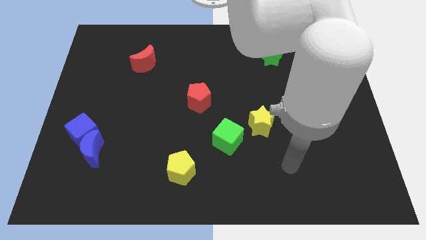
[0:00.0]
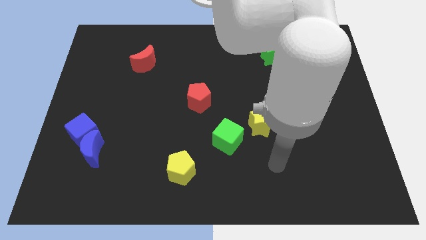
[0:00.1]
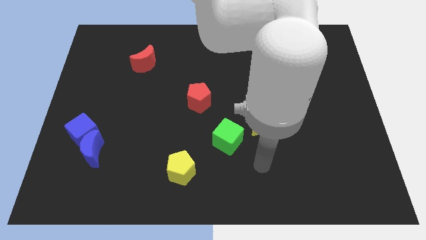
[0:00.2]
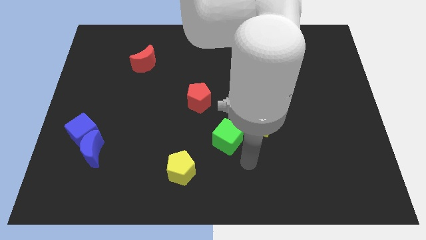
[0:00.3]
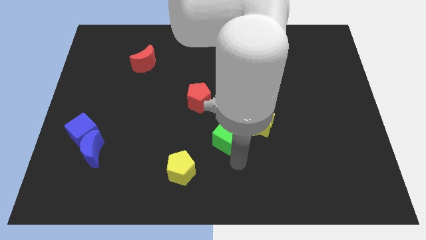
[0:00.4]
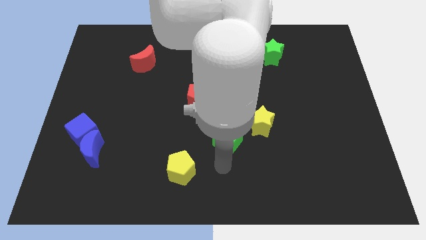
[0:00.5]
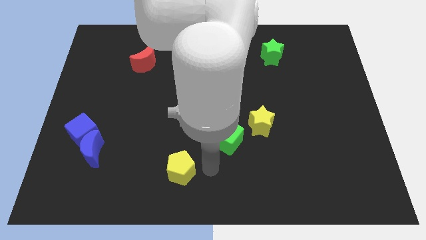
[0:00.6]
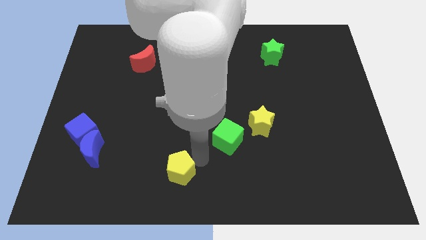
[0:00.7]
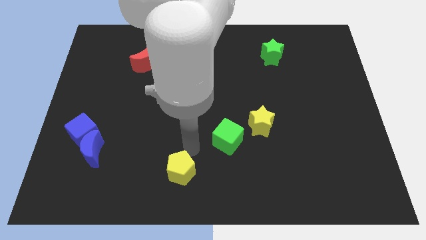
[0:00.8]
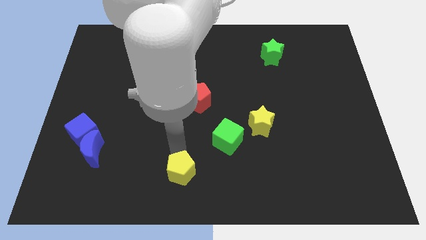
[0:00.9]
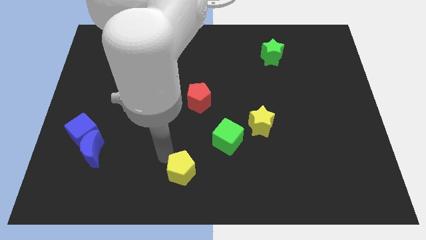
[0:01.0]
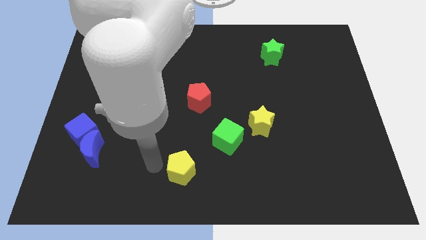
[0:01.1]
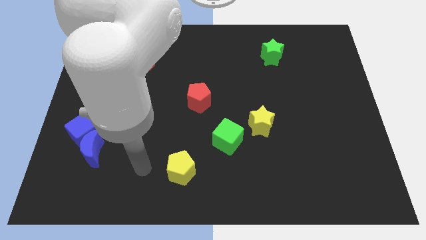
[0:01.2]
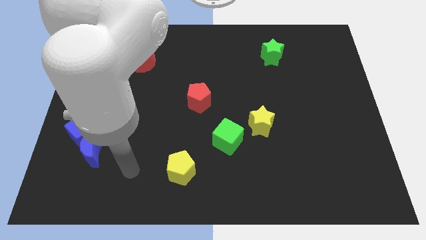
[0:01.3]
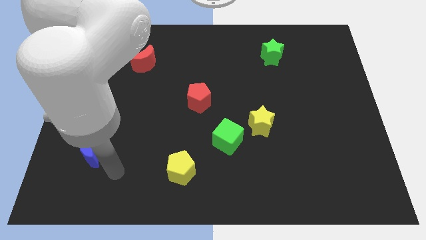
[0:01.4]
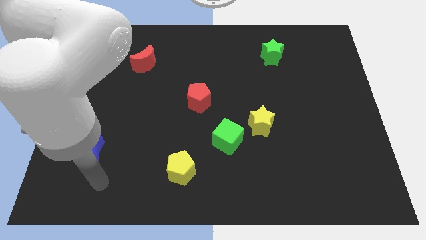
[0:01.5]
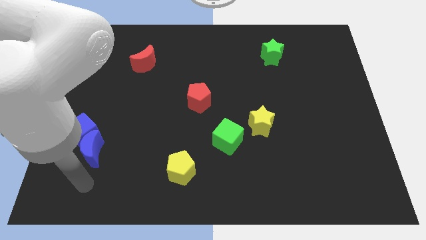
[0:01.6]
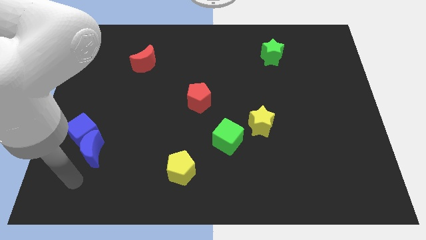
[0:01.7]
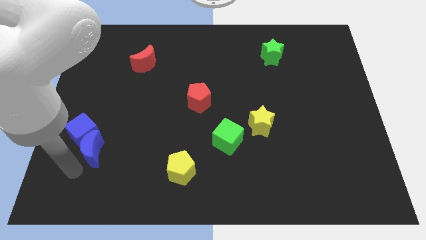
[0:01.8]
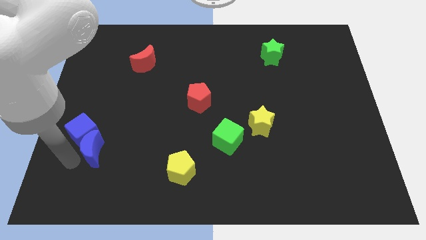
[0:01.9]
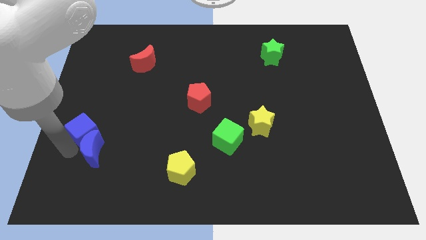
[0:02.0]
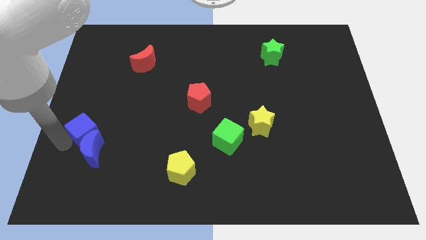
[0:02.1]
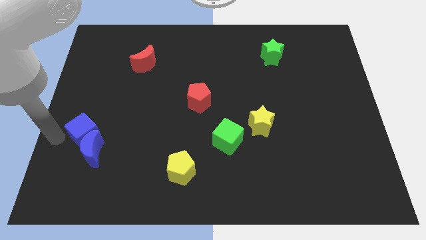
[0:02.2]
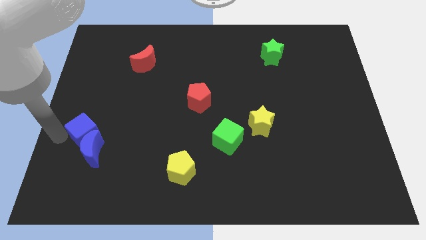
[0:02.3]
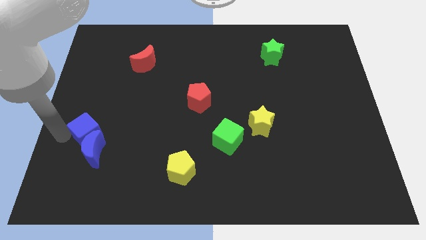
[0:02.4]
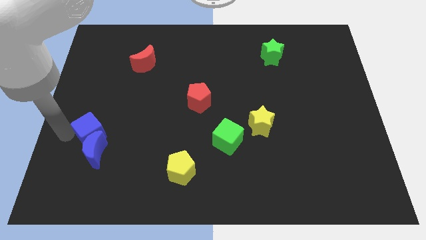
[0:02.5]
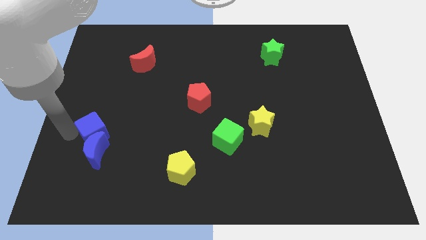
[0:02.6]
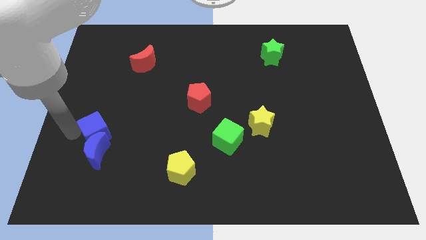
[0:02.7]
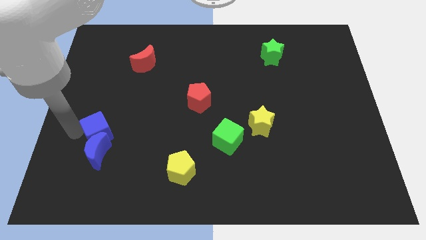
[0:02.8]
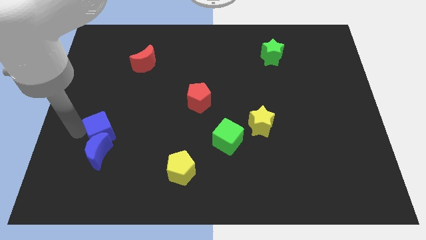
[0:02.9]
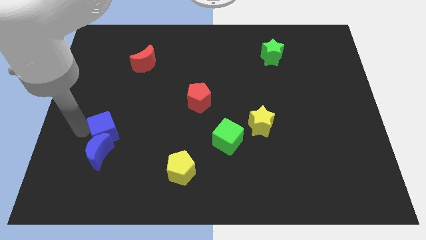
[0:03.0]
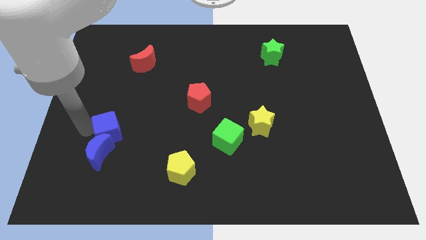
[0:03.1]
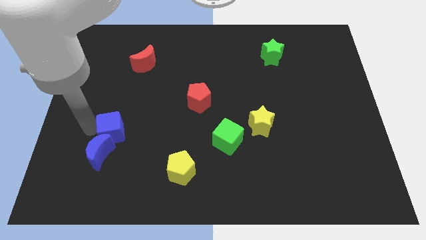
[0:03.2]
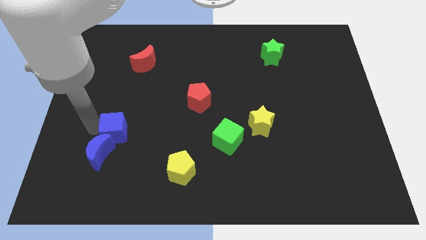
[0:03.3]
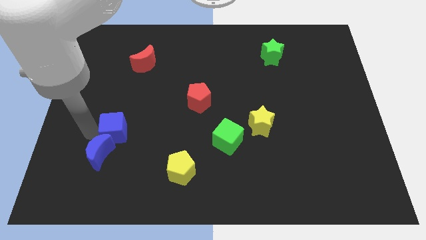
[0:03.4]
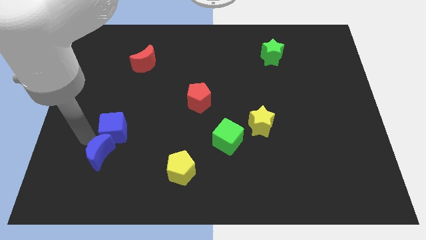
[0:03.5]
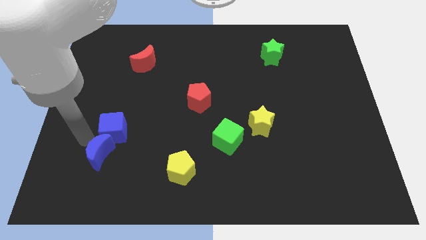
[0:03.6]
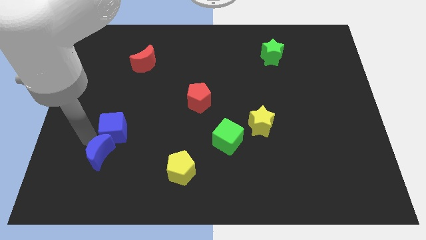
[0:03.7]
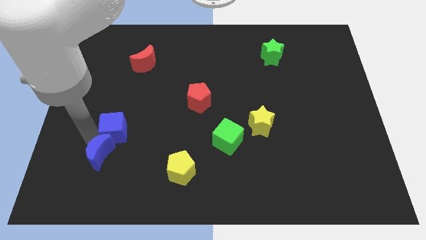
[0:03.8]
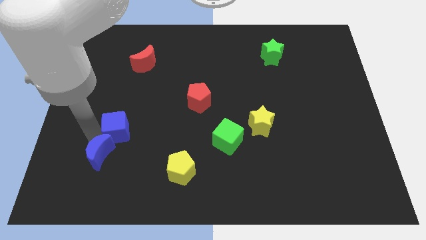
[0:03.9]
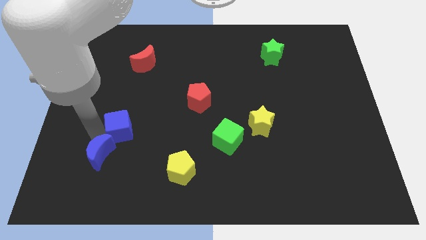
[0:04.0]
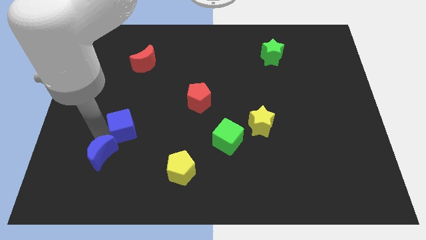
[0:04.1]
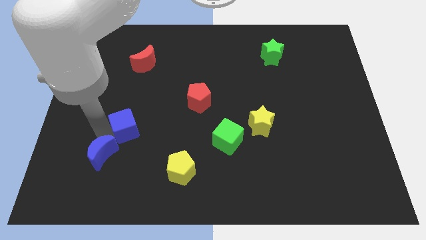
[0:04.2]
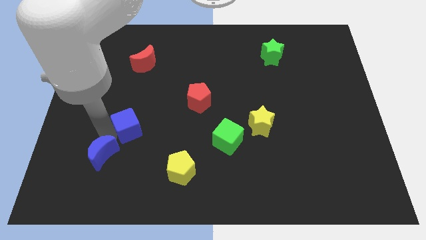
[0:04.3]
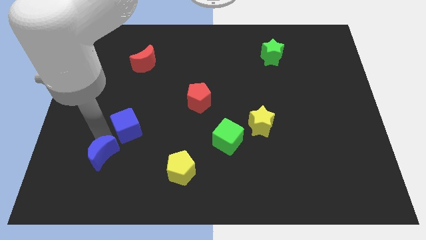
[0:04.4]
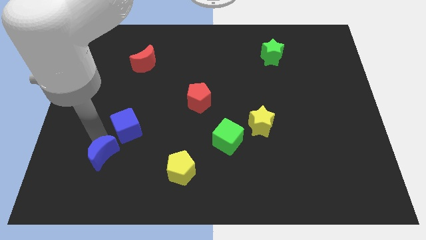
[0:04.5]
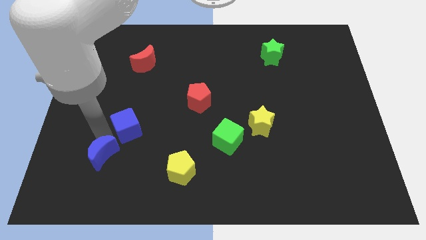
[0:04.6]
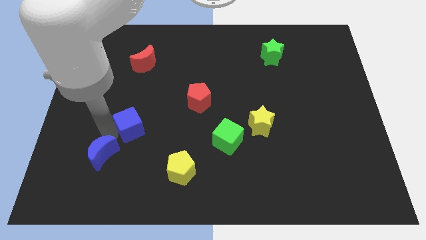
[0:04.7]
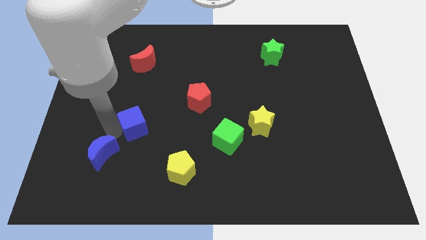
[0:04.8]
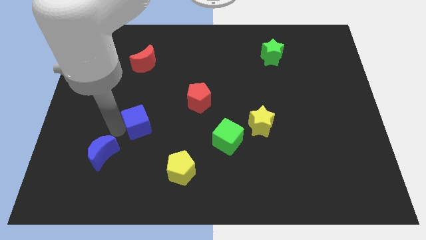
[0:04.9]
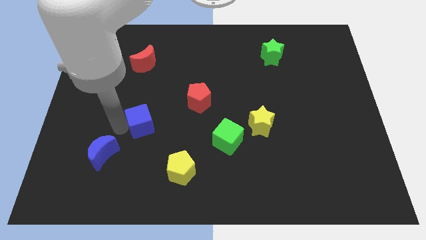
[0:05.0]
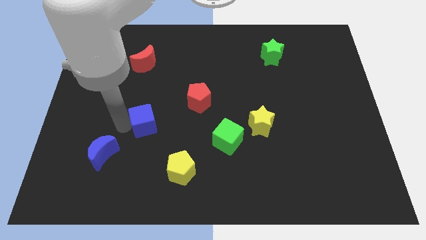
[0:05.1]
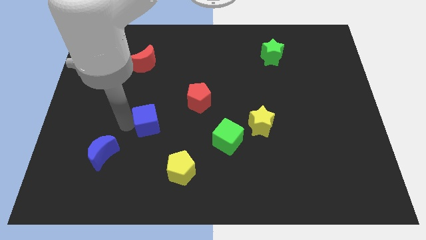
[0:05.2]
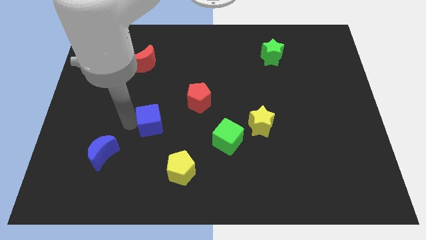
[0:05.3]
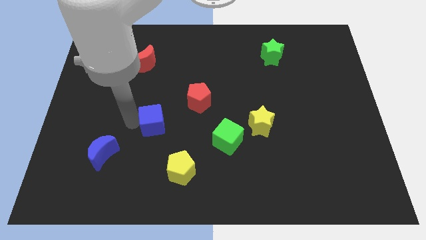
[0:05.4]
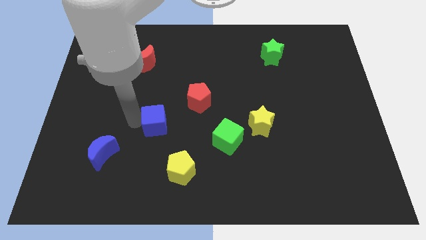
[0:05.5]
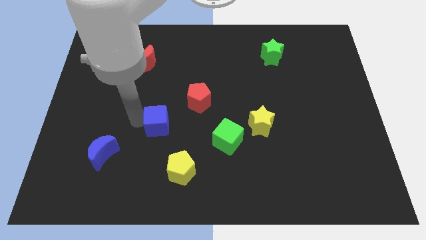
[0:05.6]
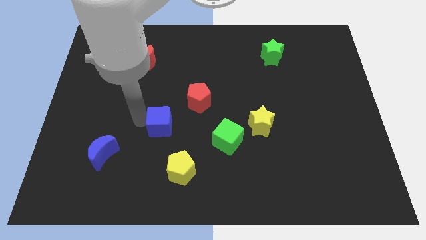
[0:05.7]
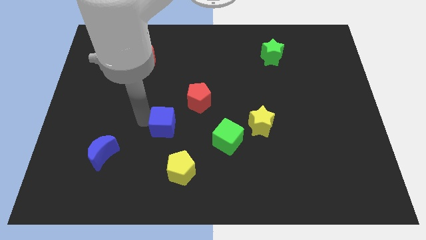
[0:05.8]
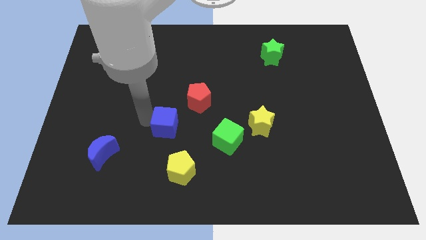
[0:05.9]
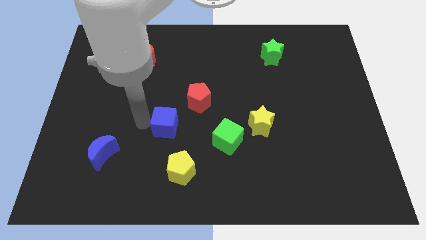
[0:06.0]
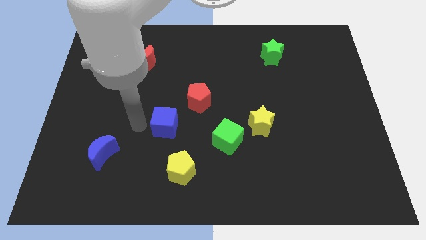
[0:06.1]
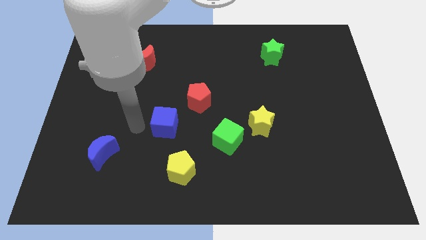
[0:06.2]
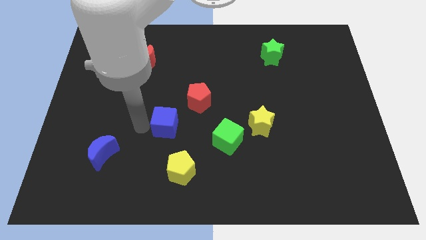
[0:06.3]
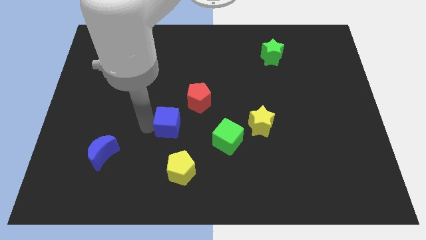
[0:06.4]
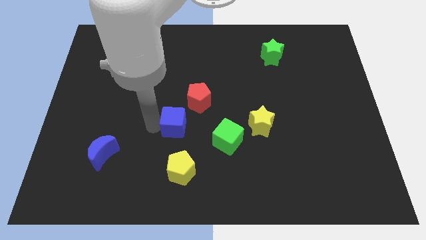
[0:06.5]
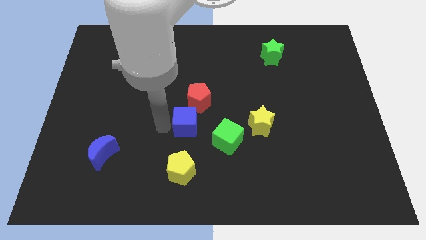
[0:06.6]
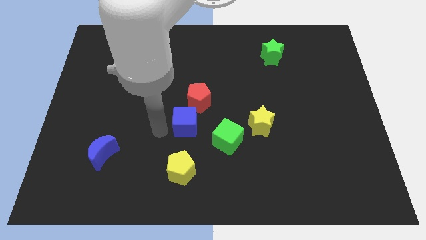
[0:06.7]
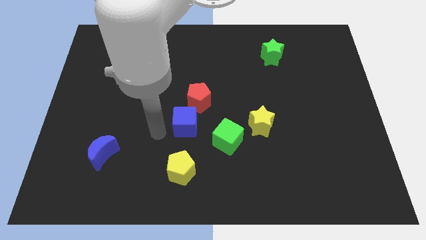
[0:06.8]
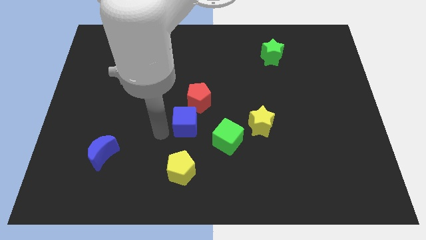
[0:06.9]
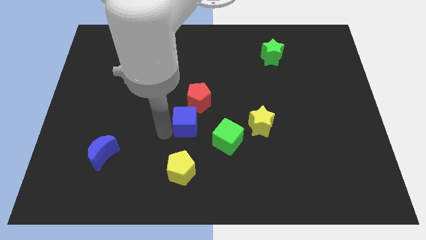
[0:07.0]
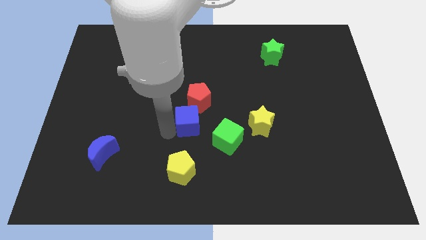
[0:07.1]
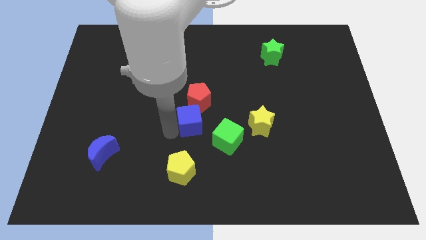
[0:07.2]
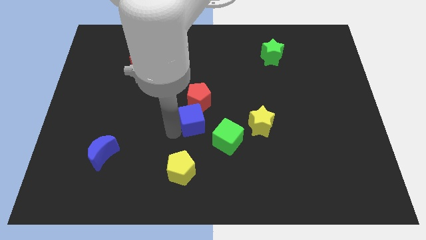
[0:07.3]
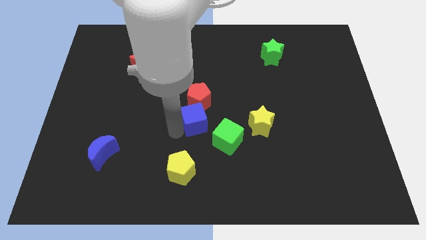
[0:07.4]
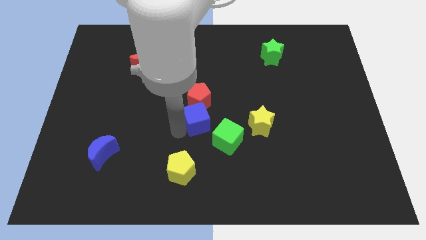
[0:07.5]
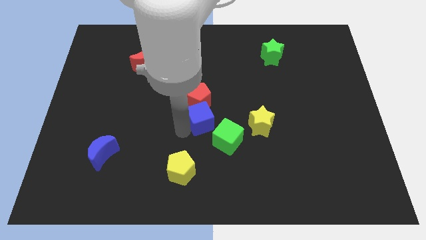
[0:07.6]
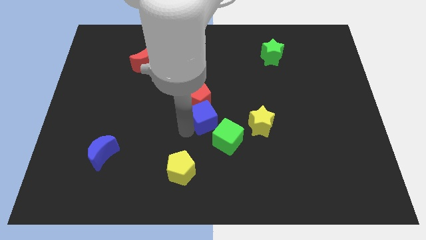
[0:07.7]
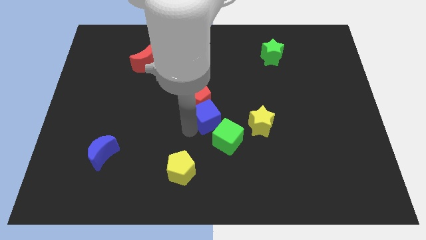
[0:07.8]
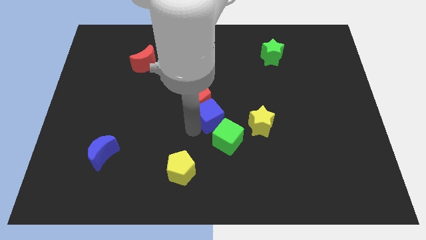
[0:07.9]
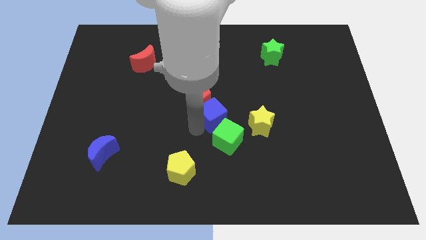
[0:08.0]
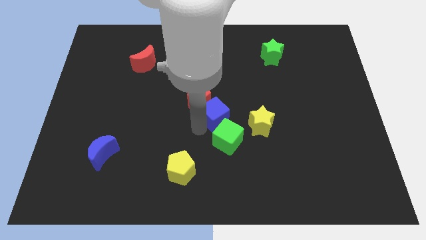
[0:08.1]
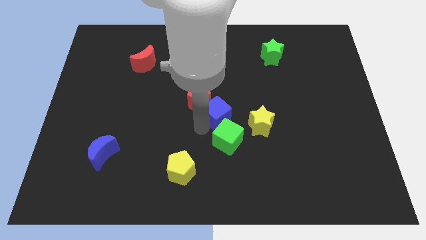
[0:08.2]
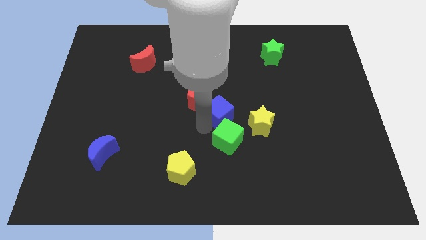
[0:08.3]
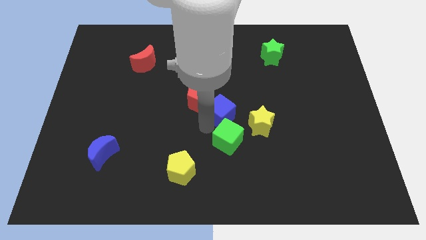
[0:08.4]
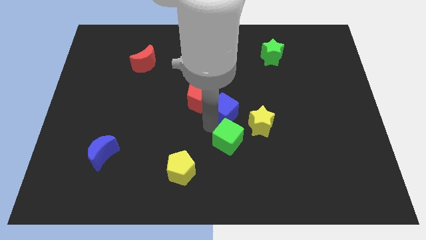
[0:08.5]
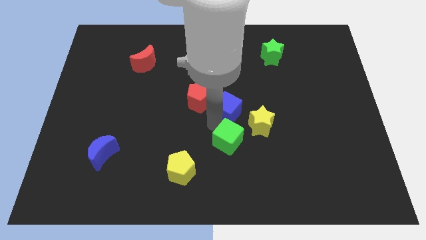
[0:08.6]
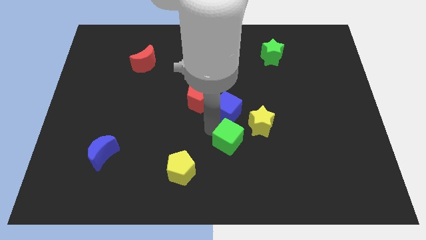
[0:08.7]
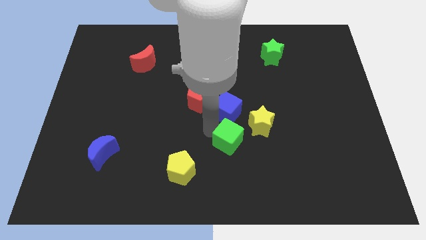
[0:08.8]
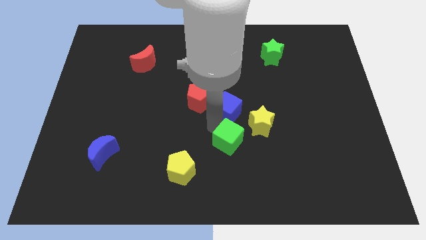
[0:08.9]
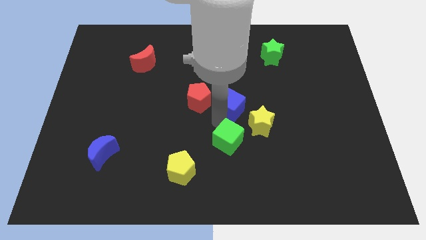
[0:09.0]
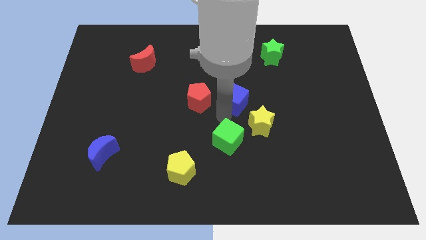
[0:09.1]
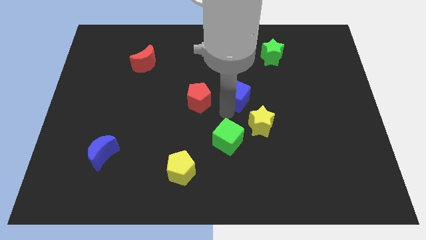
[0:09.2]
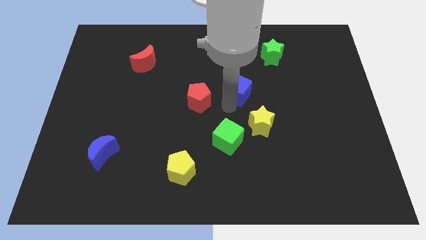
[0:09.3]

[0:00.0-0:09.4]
move the blue cube to the top side of the yellow star
